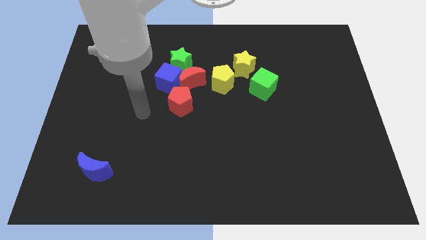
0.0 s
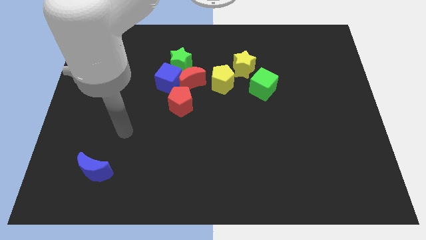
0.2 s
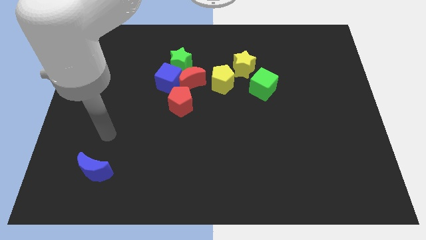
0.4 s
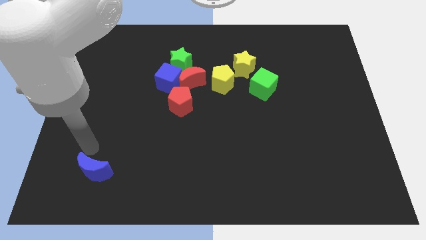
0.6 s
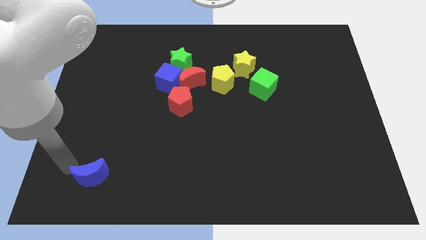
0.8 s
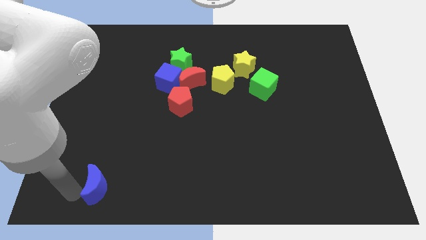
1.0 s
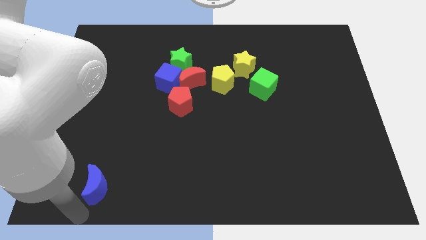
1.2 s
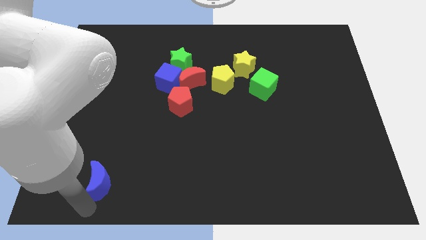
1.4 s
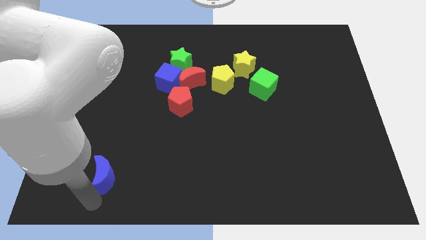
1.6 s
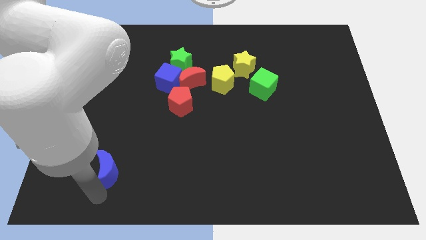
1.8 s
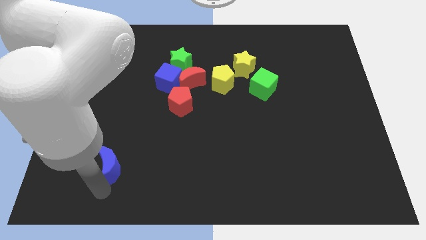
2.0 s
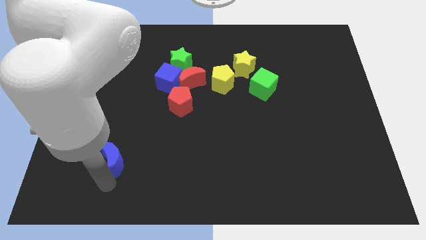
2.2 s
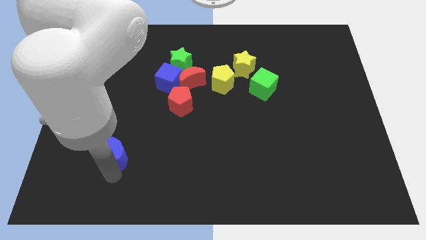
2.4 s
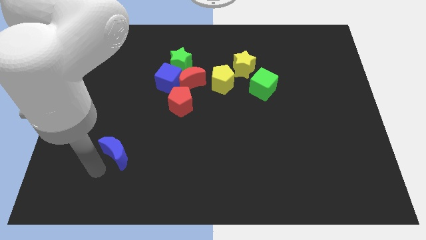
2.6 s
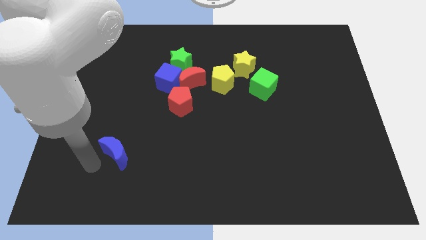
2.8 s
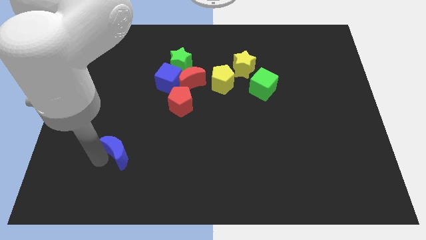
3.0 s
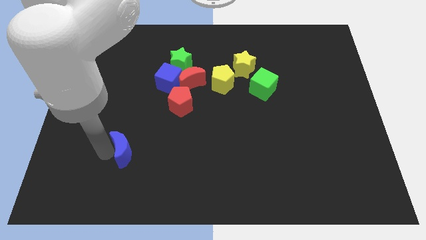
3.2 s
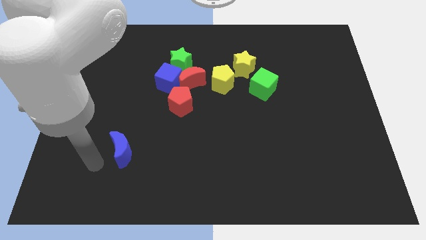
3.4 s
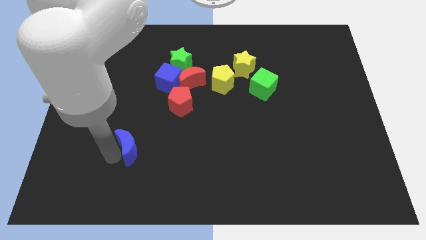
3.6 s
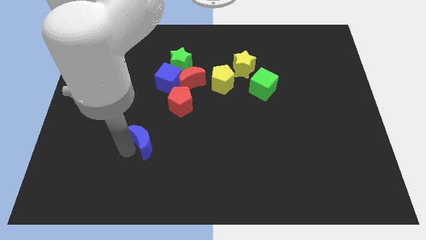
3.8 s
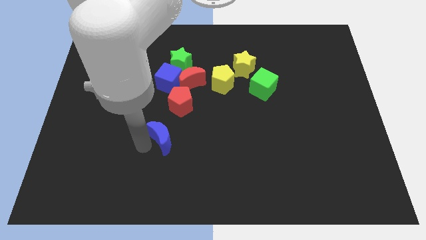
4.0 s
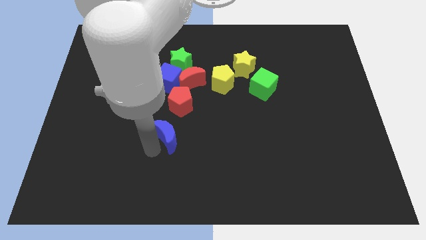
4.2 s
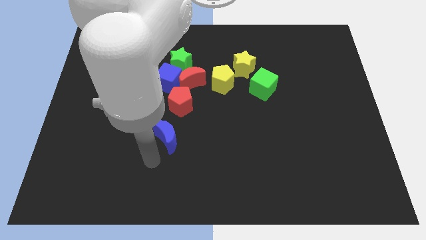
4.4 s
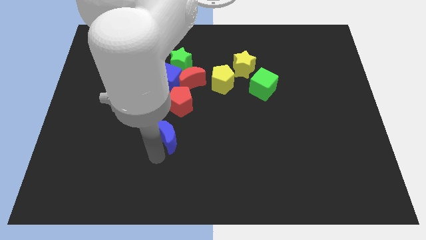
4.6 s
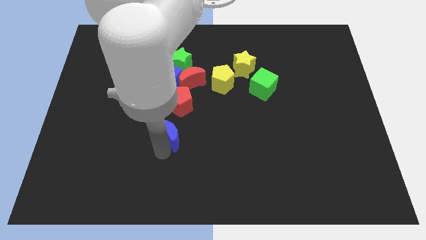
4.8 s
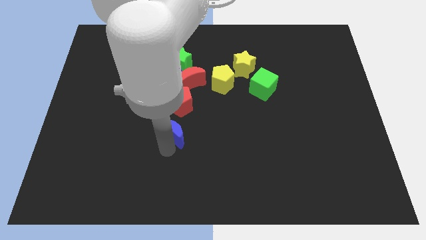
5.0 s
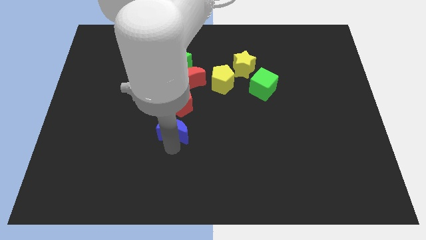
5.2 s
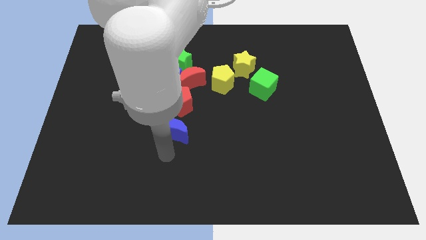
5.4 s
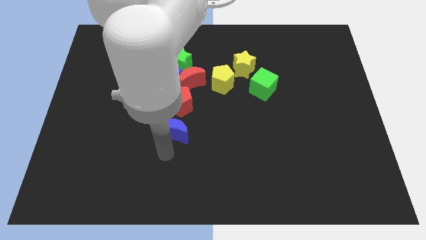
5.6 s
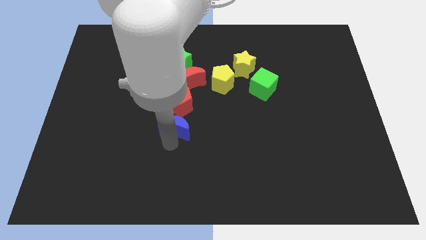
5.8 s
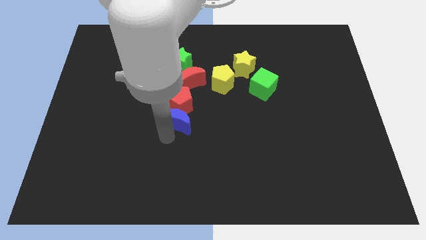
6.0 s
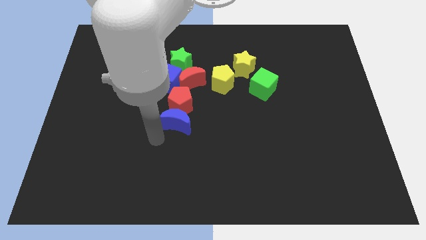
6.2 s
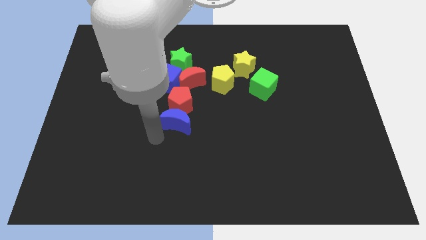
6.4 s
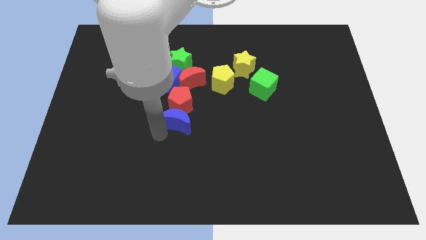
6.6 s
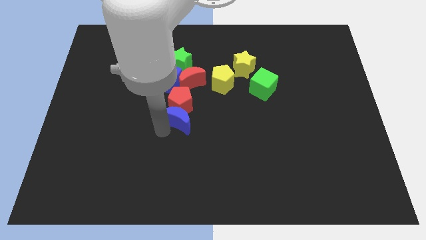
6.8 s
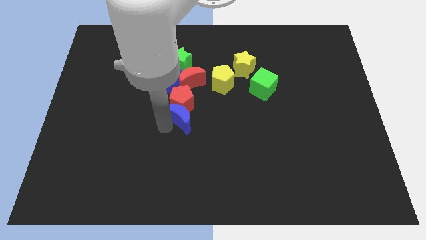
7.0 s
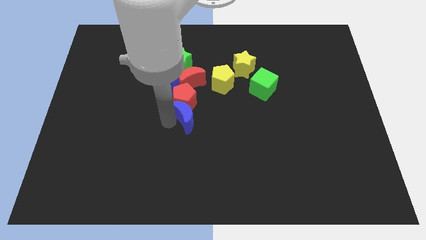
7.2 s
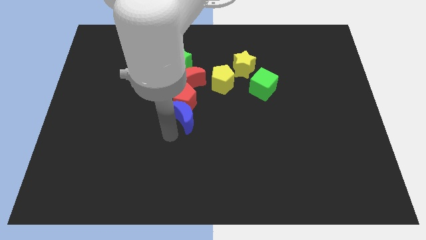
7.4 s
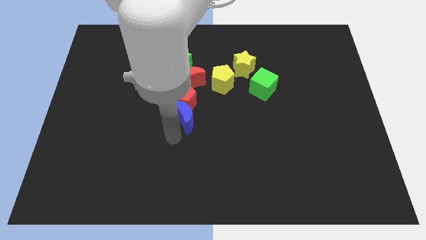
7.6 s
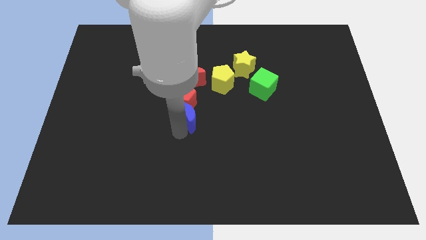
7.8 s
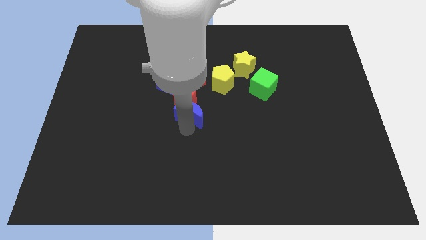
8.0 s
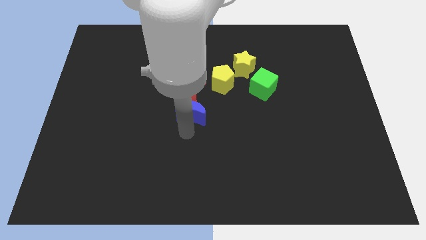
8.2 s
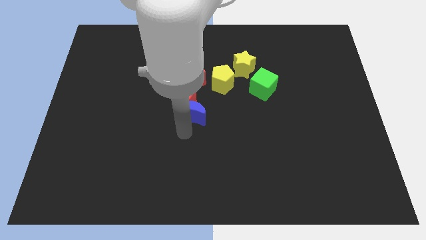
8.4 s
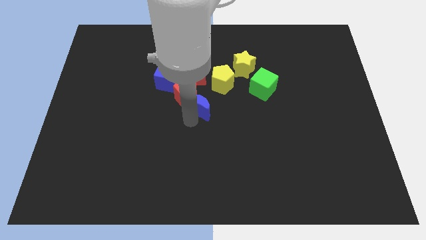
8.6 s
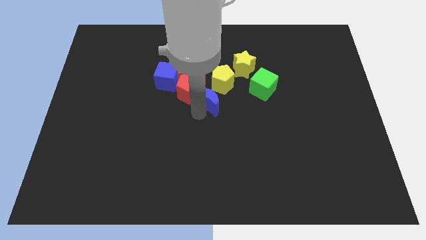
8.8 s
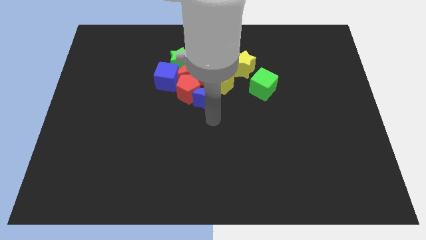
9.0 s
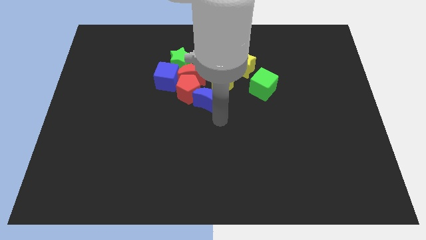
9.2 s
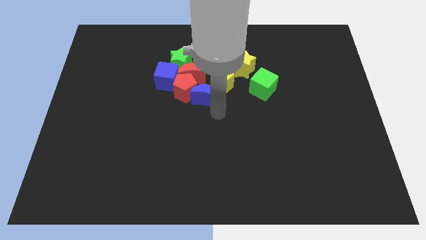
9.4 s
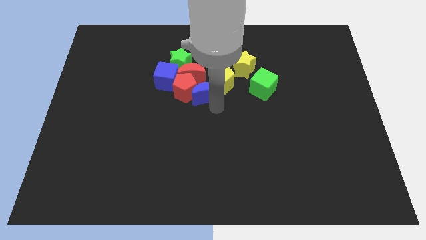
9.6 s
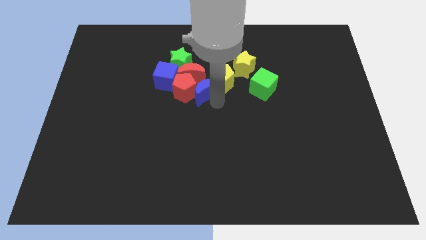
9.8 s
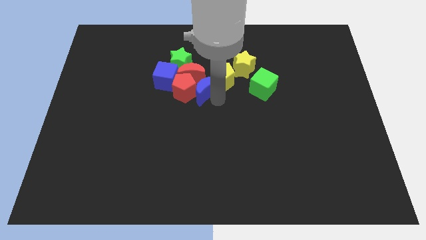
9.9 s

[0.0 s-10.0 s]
move the blue moon next to the red moon

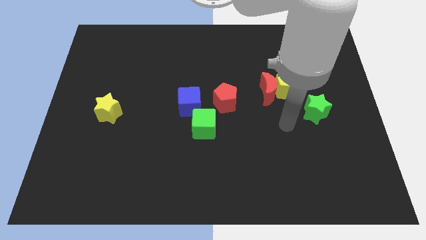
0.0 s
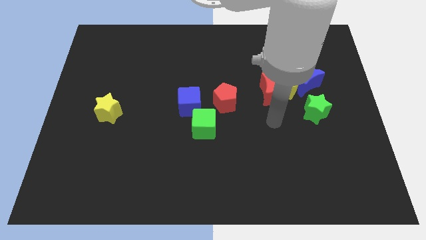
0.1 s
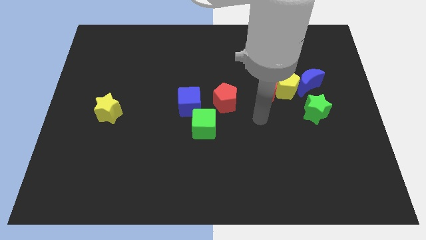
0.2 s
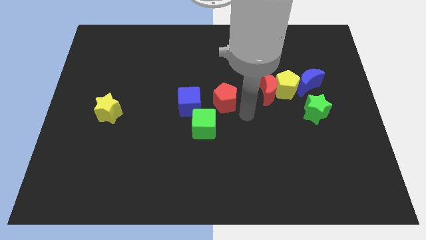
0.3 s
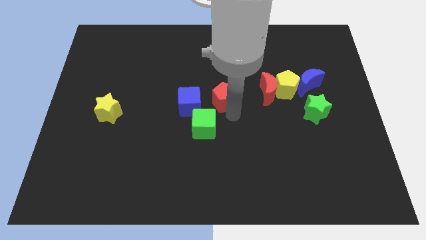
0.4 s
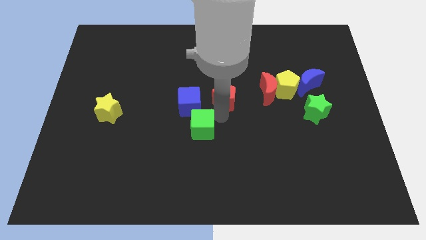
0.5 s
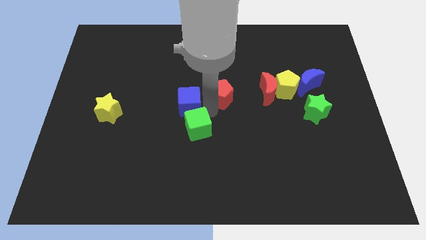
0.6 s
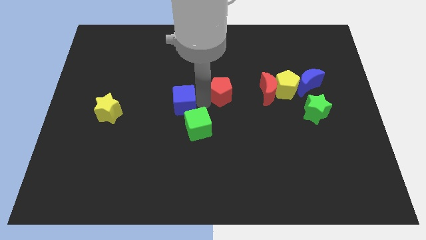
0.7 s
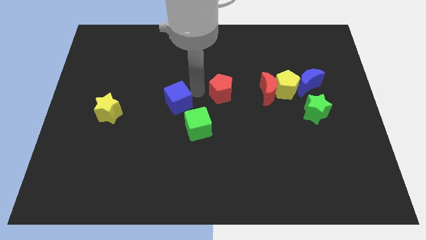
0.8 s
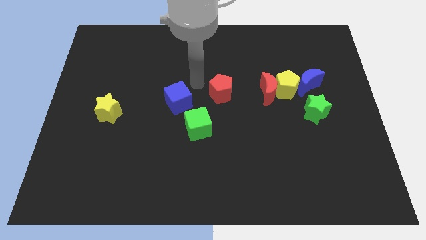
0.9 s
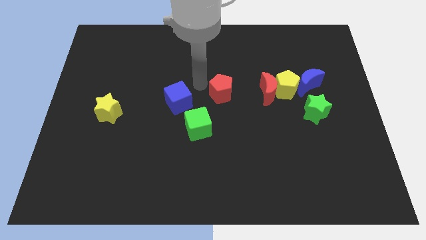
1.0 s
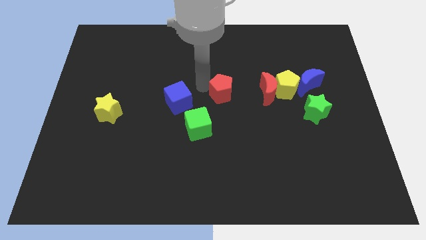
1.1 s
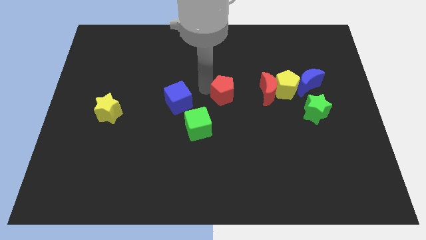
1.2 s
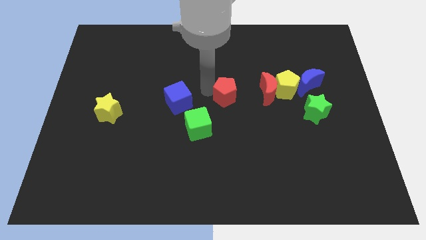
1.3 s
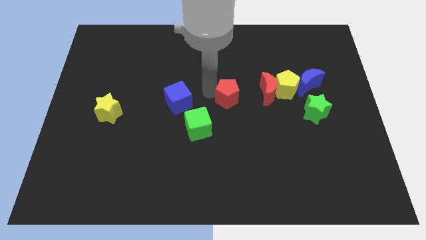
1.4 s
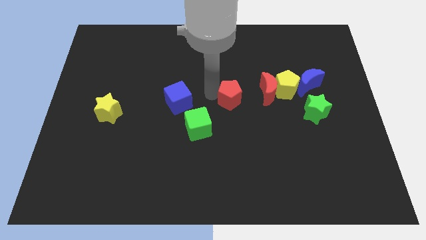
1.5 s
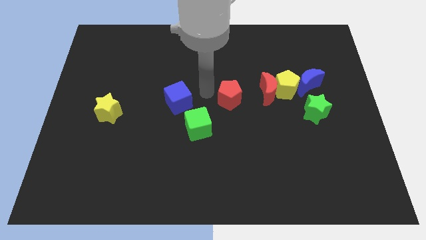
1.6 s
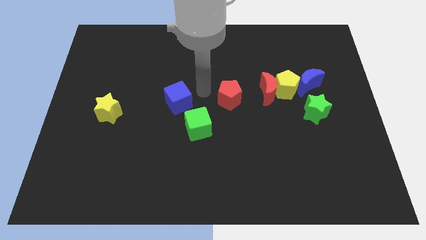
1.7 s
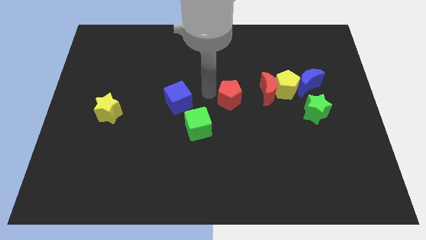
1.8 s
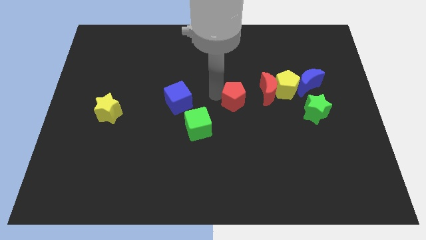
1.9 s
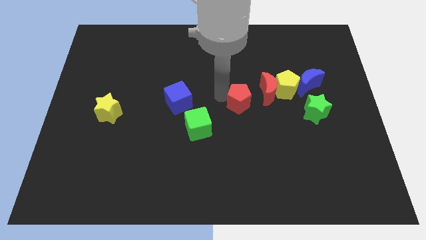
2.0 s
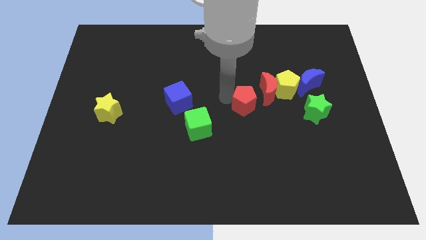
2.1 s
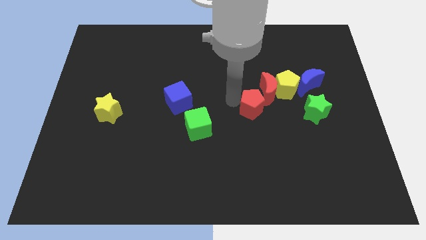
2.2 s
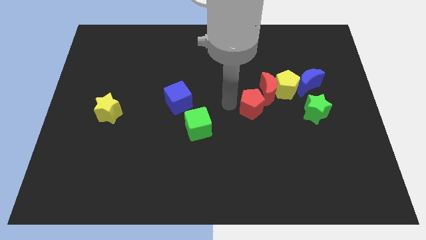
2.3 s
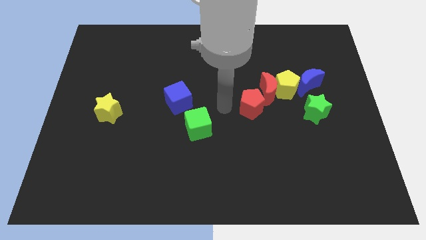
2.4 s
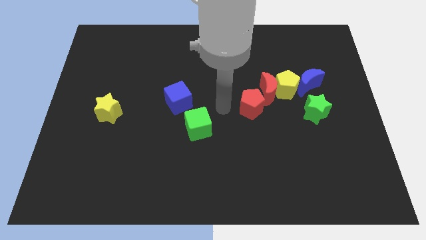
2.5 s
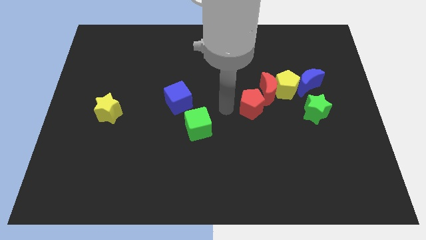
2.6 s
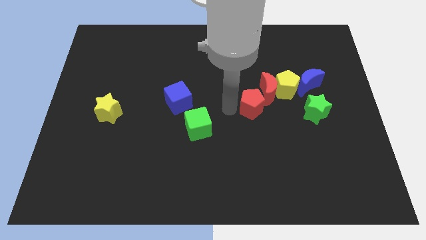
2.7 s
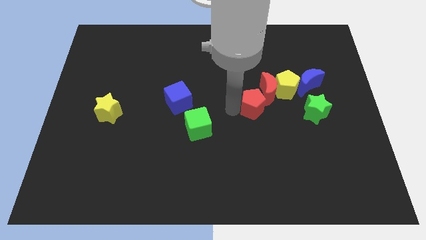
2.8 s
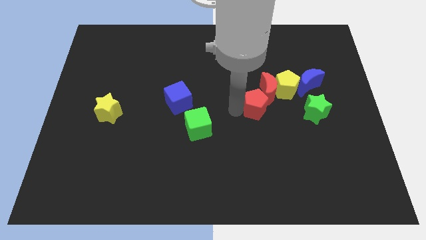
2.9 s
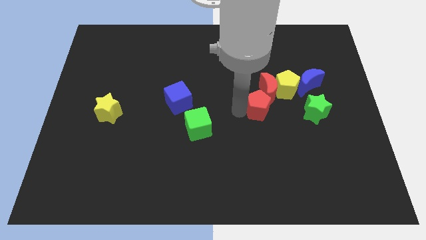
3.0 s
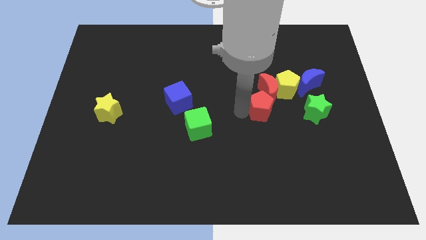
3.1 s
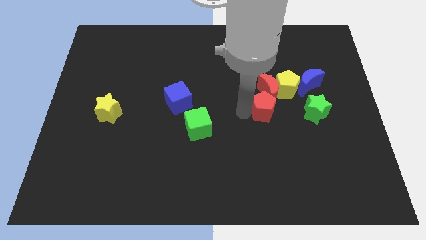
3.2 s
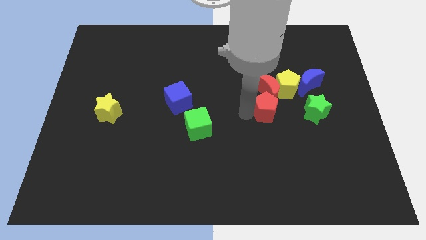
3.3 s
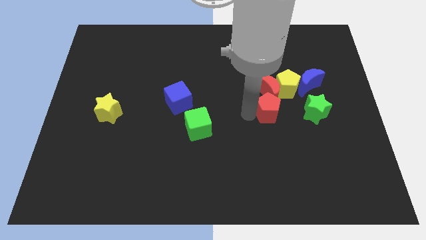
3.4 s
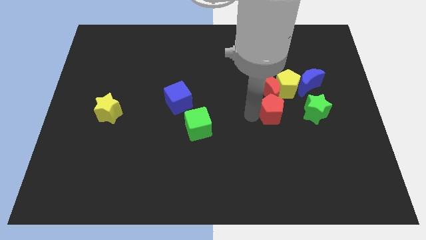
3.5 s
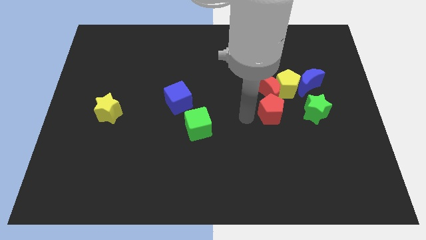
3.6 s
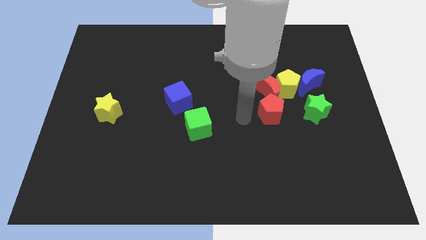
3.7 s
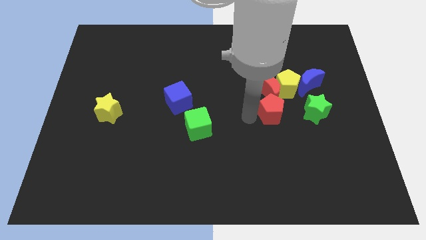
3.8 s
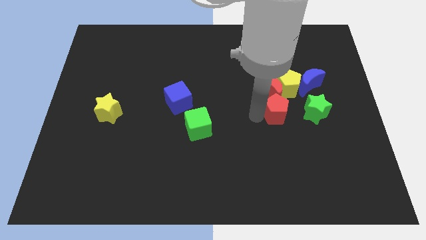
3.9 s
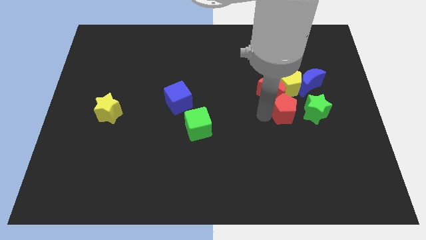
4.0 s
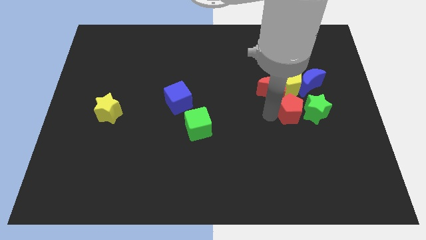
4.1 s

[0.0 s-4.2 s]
put the red pentagon towards the green star
